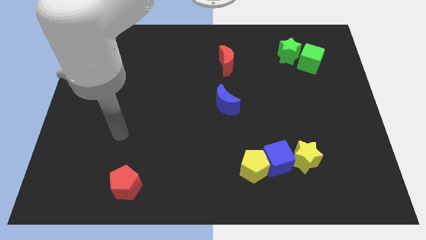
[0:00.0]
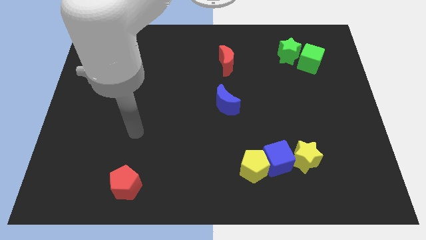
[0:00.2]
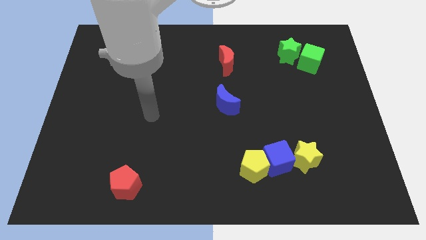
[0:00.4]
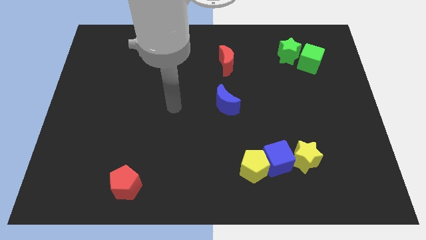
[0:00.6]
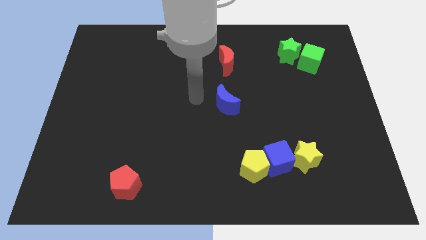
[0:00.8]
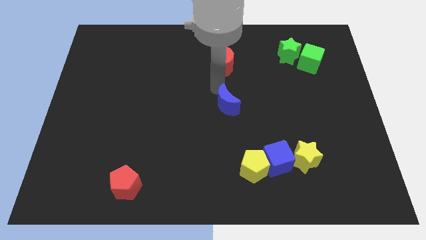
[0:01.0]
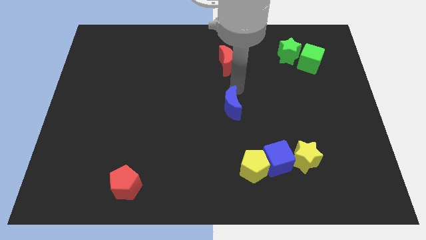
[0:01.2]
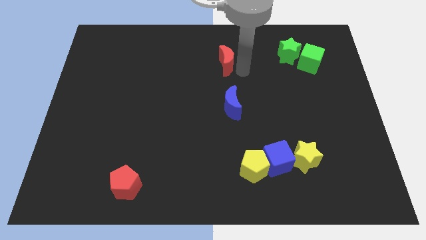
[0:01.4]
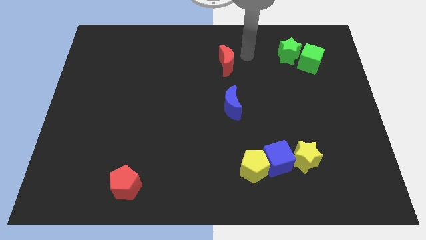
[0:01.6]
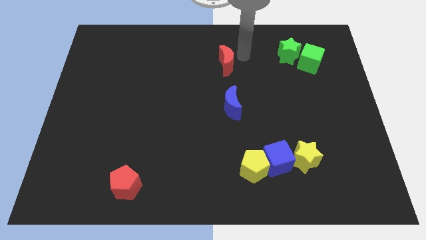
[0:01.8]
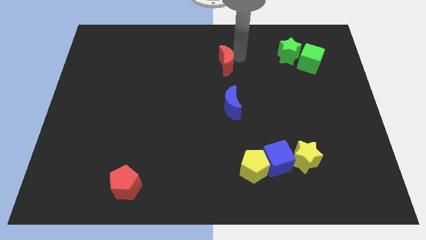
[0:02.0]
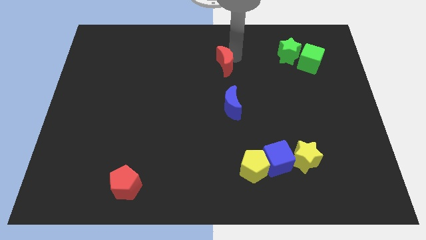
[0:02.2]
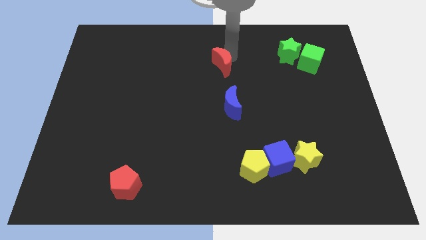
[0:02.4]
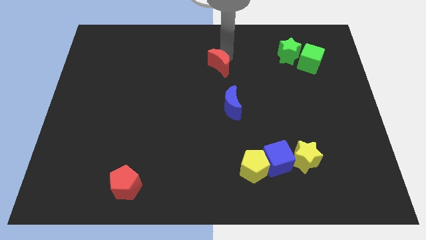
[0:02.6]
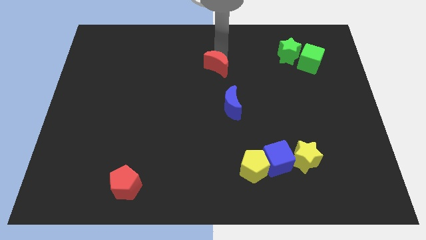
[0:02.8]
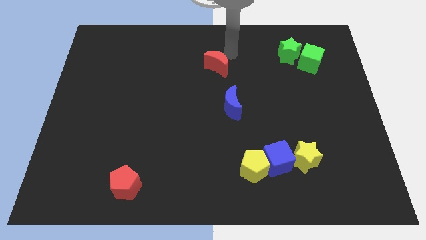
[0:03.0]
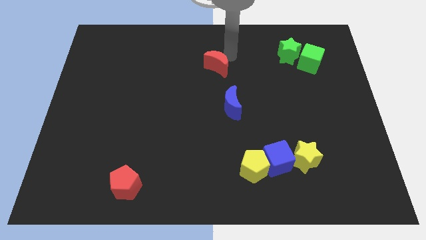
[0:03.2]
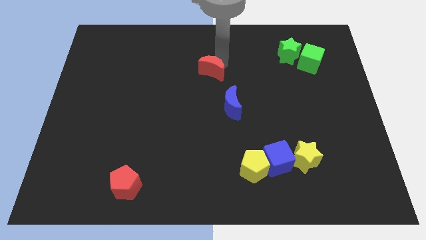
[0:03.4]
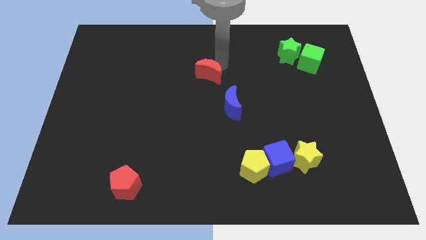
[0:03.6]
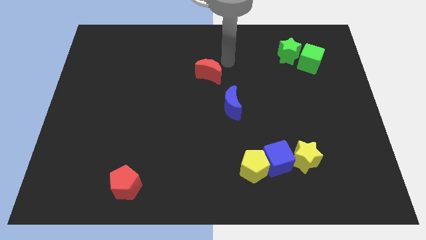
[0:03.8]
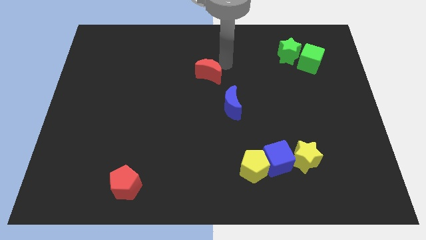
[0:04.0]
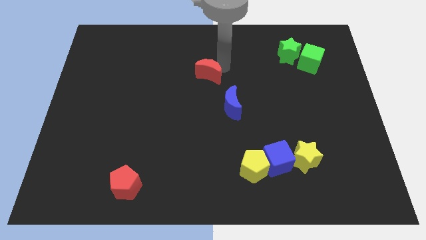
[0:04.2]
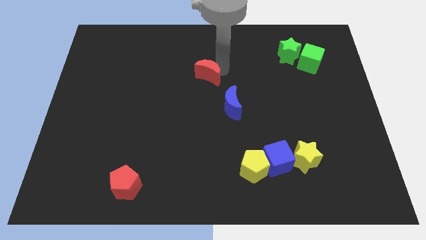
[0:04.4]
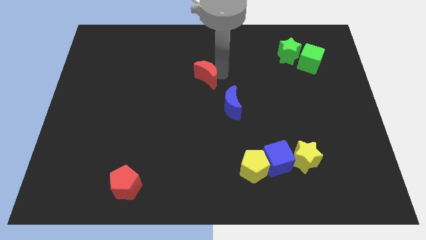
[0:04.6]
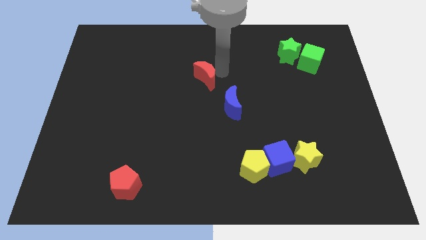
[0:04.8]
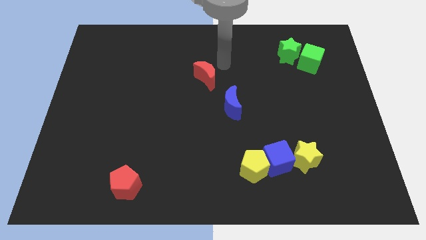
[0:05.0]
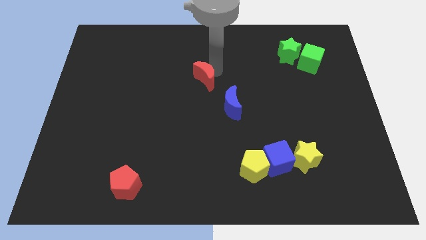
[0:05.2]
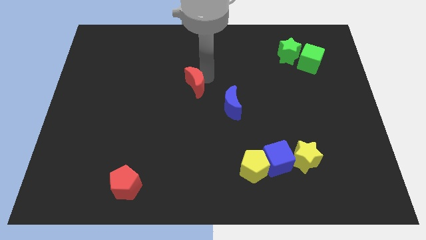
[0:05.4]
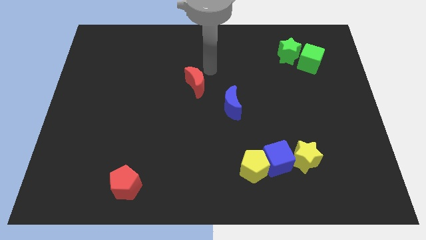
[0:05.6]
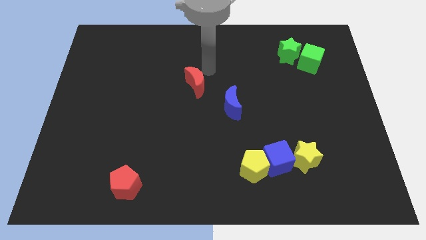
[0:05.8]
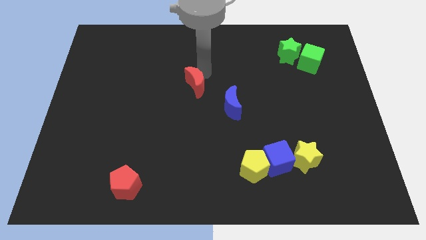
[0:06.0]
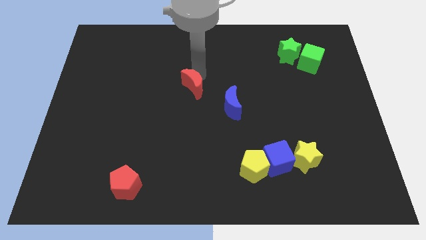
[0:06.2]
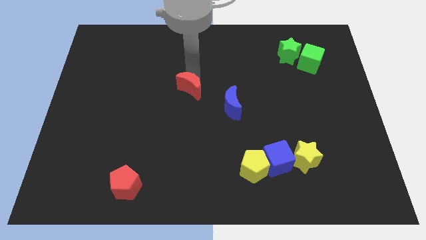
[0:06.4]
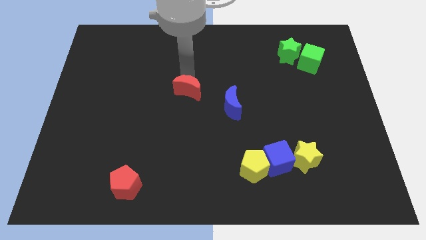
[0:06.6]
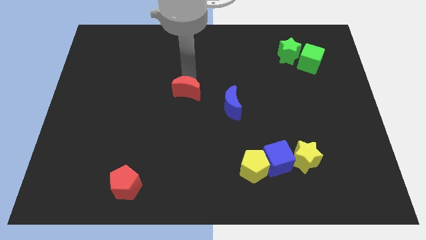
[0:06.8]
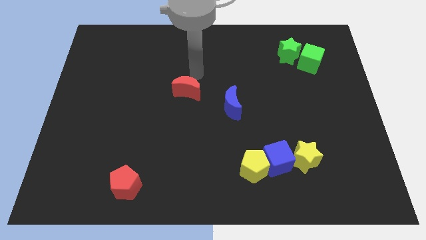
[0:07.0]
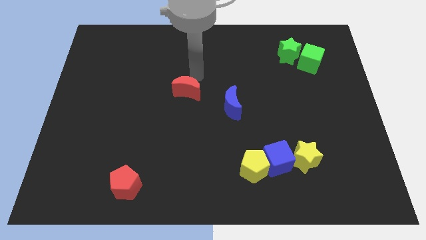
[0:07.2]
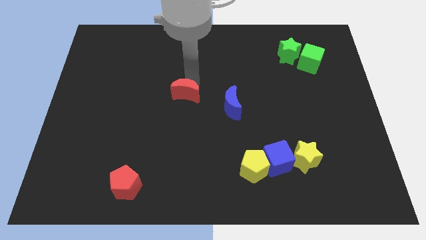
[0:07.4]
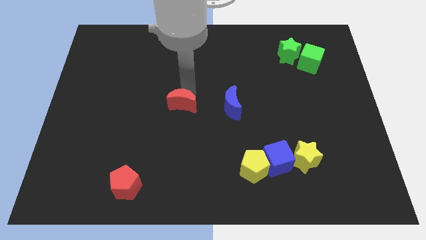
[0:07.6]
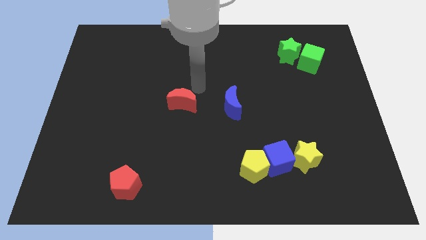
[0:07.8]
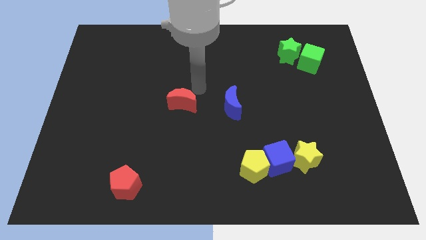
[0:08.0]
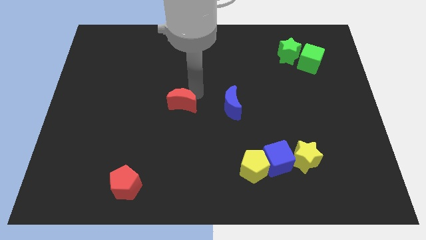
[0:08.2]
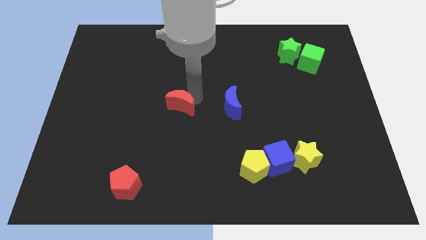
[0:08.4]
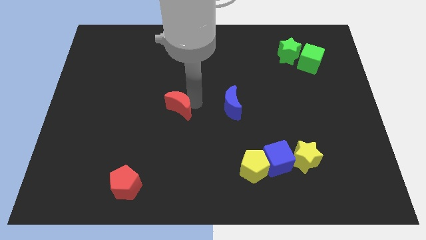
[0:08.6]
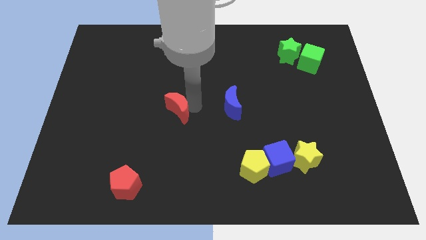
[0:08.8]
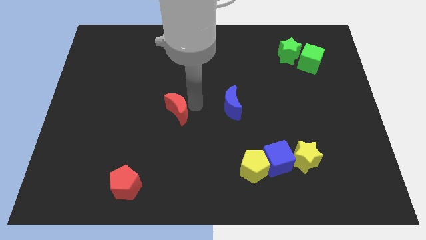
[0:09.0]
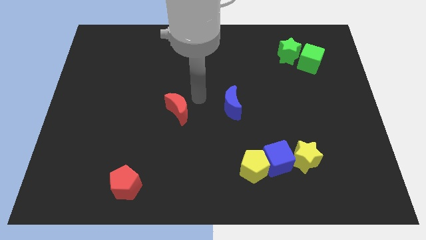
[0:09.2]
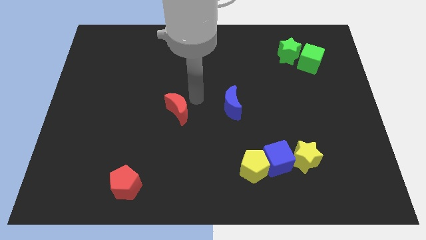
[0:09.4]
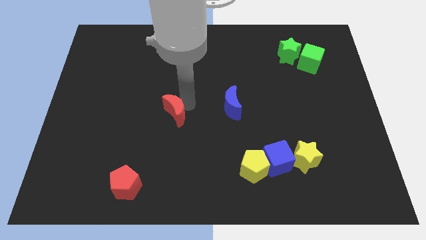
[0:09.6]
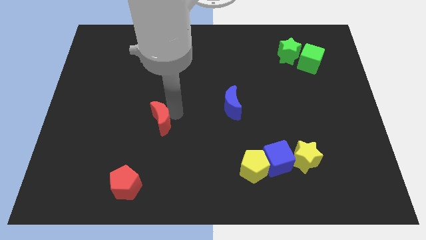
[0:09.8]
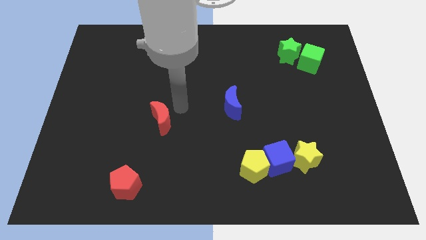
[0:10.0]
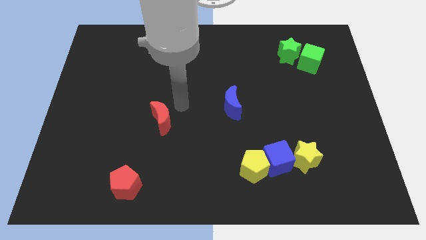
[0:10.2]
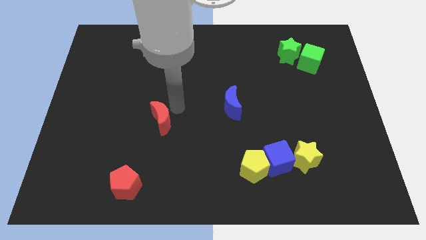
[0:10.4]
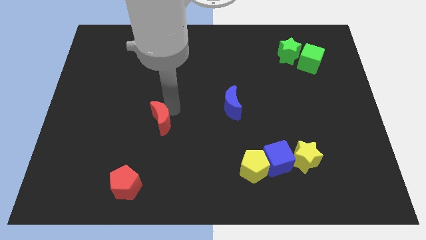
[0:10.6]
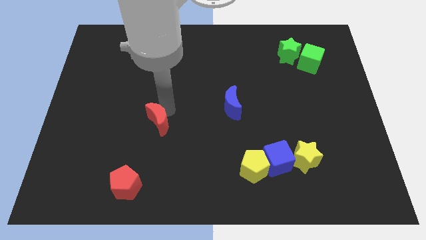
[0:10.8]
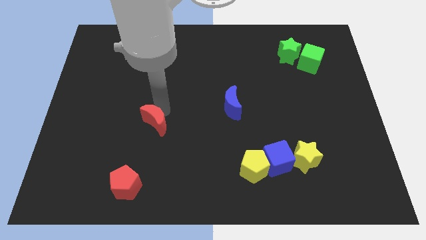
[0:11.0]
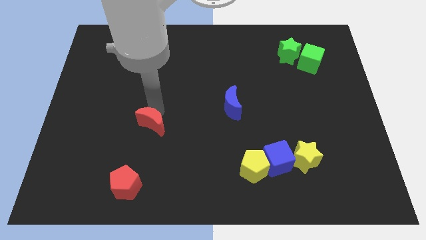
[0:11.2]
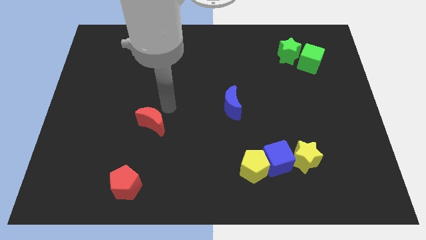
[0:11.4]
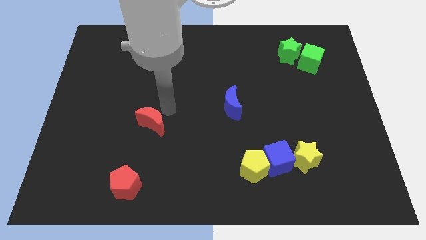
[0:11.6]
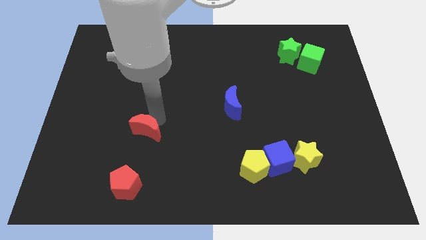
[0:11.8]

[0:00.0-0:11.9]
push the red moon to the top of the red pentagon
